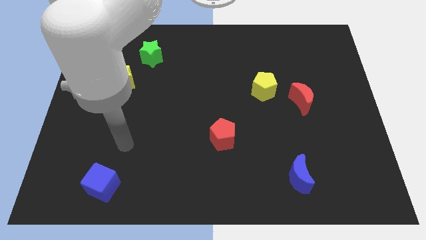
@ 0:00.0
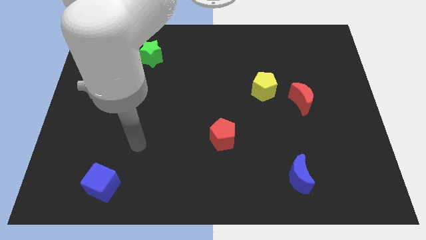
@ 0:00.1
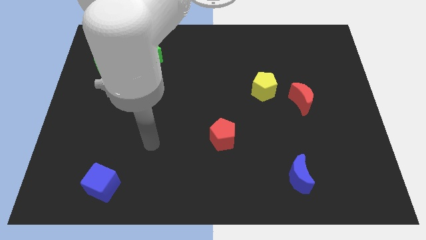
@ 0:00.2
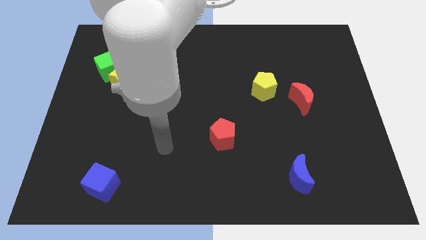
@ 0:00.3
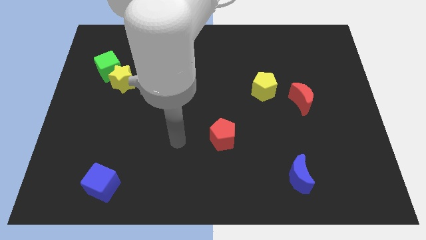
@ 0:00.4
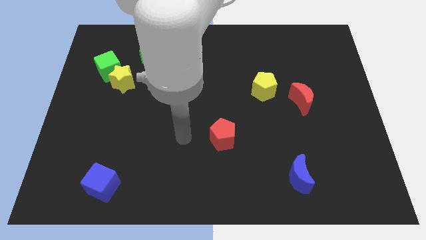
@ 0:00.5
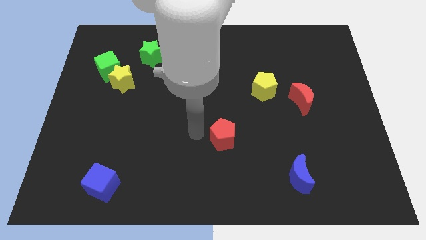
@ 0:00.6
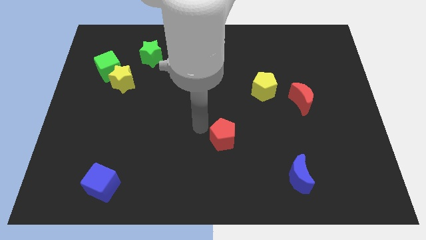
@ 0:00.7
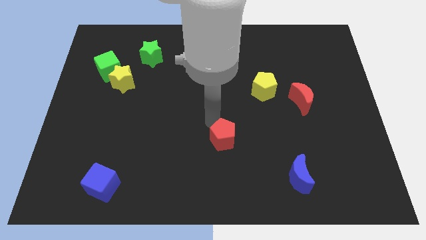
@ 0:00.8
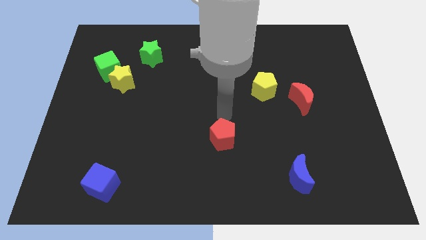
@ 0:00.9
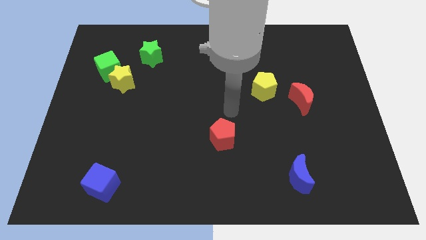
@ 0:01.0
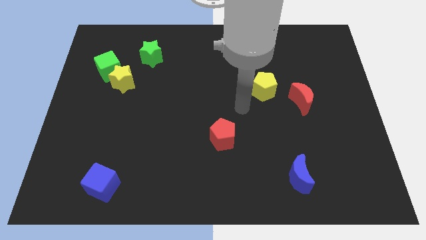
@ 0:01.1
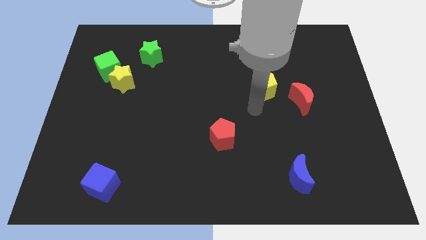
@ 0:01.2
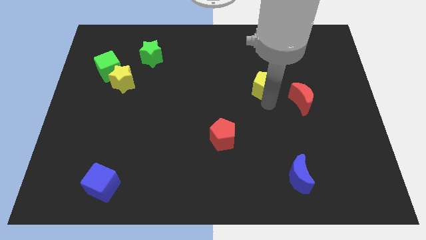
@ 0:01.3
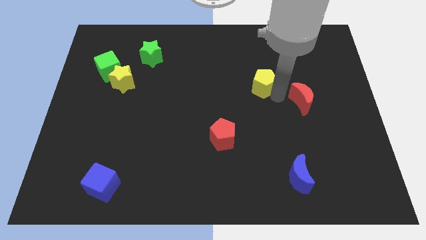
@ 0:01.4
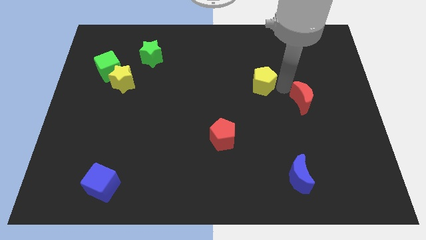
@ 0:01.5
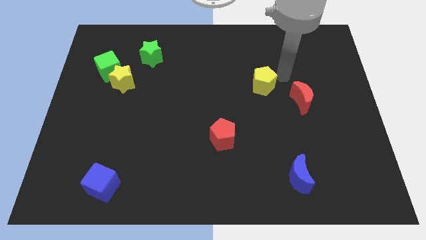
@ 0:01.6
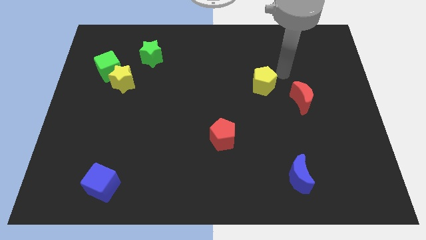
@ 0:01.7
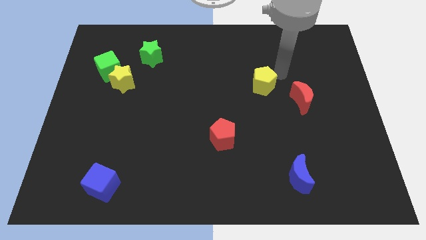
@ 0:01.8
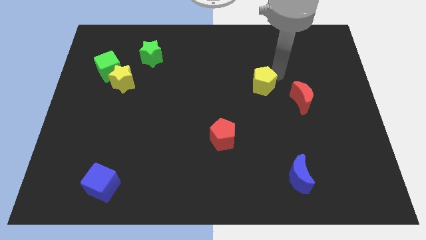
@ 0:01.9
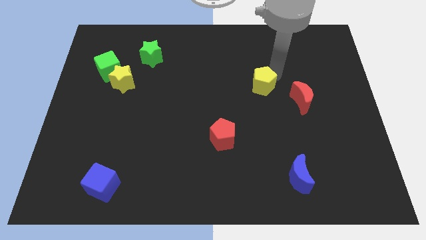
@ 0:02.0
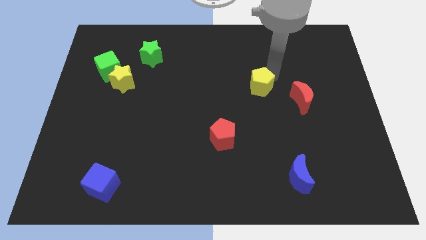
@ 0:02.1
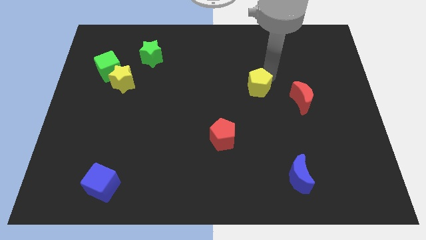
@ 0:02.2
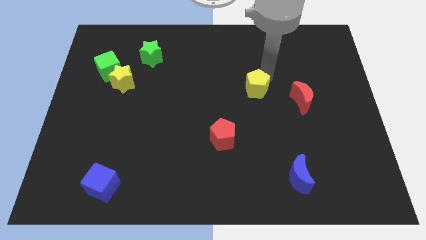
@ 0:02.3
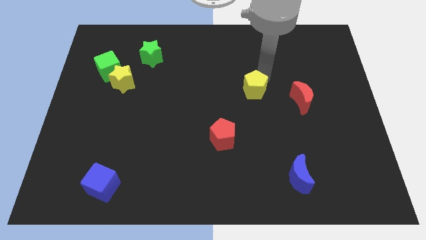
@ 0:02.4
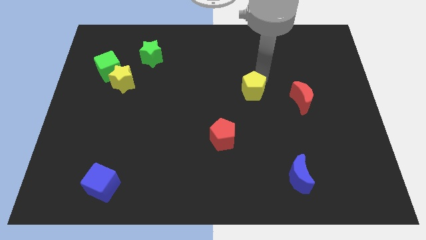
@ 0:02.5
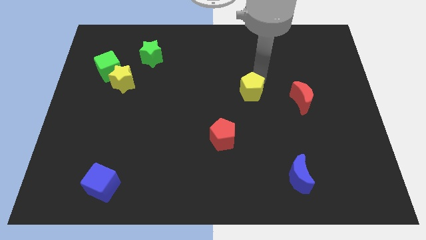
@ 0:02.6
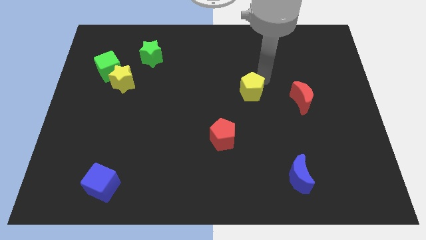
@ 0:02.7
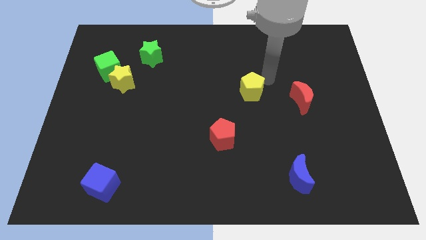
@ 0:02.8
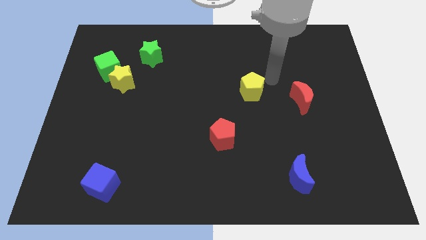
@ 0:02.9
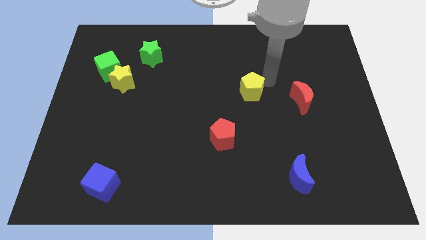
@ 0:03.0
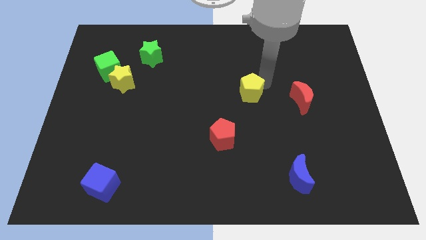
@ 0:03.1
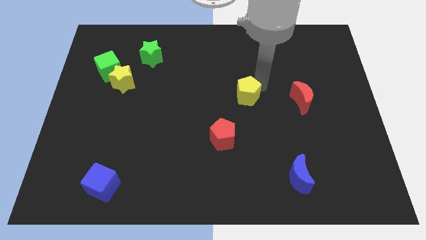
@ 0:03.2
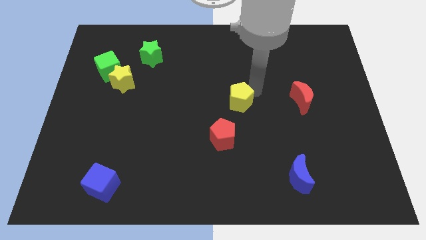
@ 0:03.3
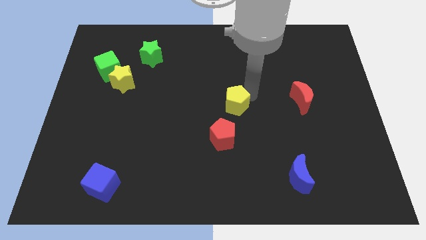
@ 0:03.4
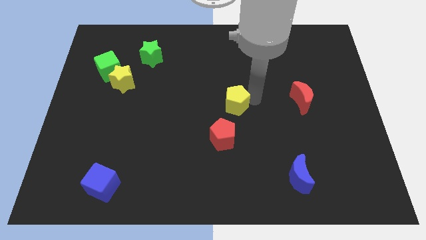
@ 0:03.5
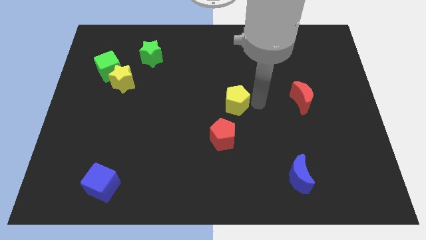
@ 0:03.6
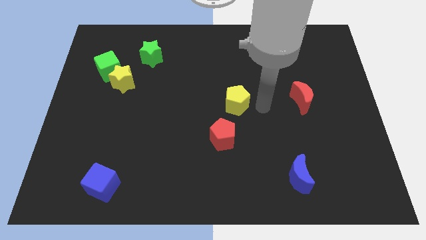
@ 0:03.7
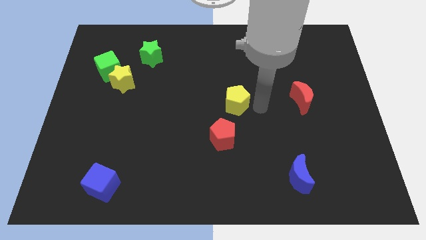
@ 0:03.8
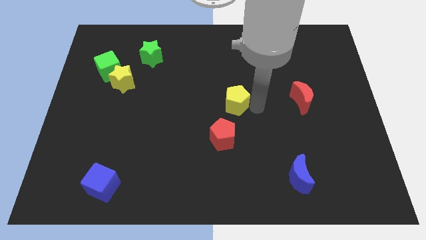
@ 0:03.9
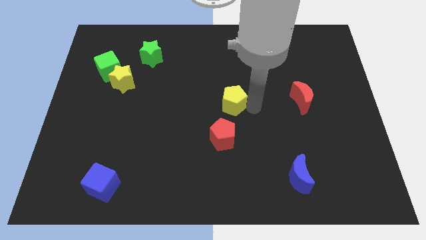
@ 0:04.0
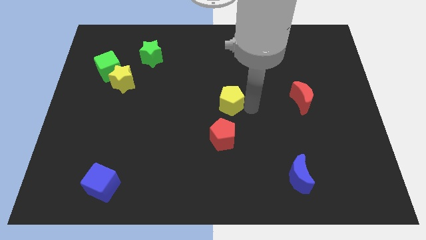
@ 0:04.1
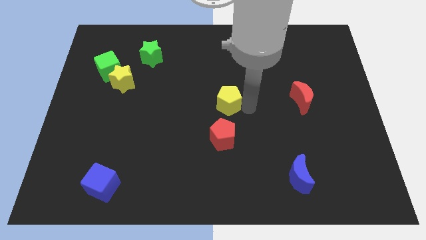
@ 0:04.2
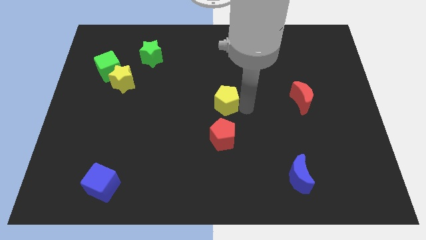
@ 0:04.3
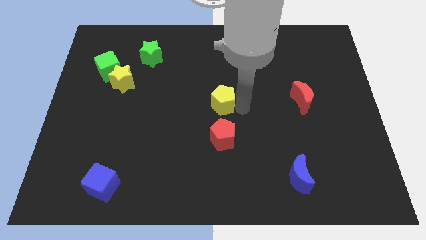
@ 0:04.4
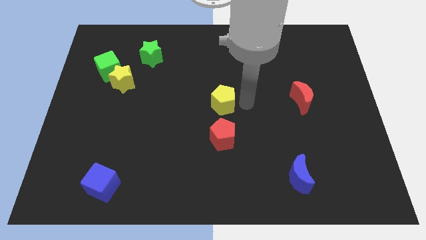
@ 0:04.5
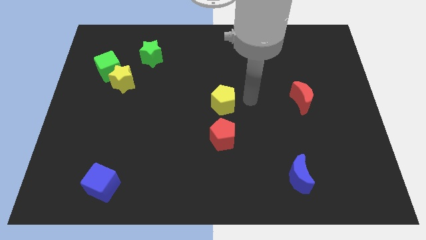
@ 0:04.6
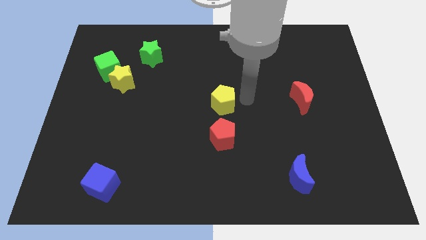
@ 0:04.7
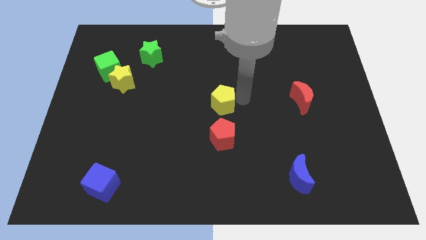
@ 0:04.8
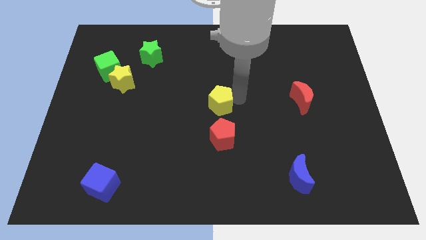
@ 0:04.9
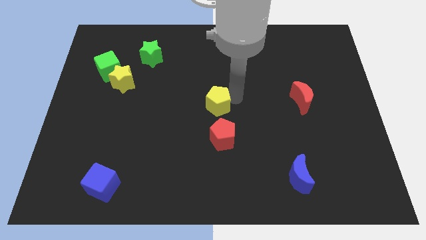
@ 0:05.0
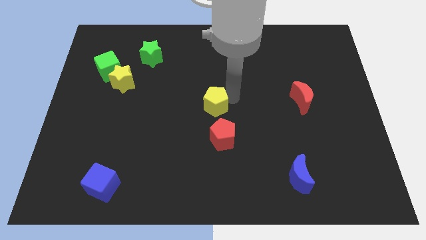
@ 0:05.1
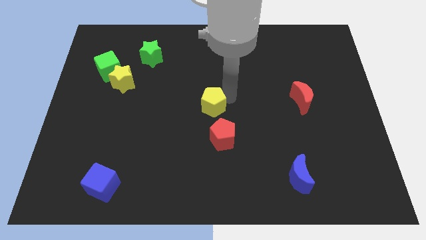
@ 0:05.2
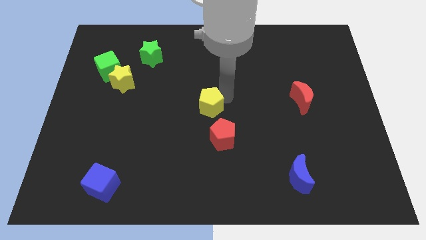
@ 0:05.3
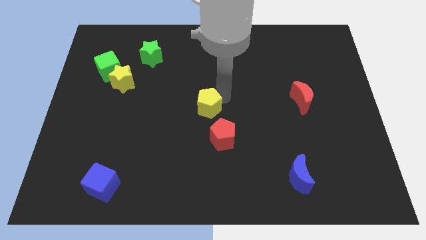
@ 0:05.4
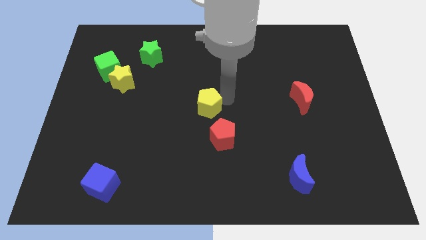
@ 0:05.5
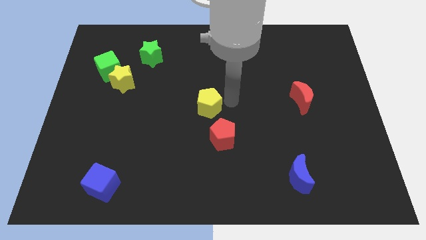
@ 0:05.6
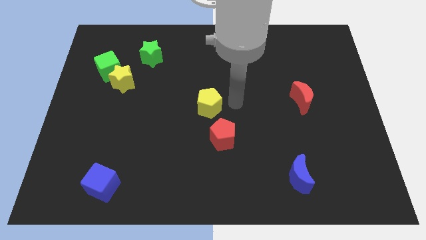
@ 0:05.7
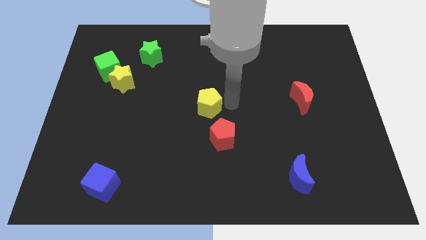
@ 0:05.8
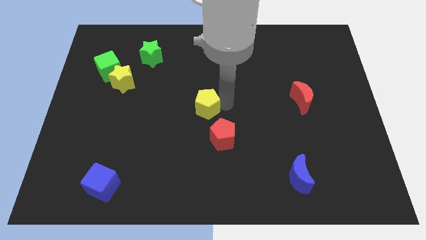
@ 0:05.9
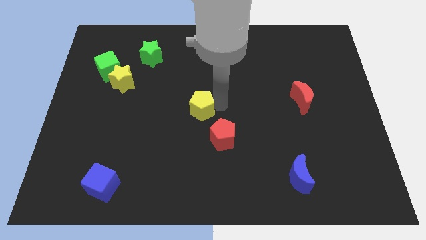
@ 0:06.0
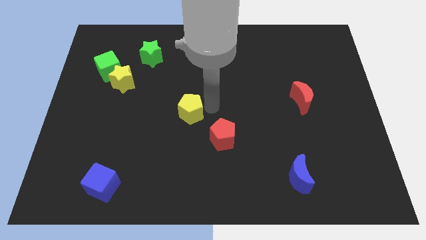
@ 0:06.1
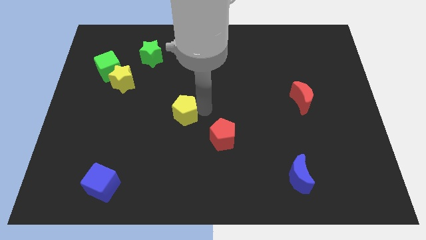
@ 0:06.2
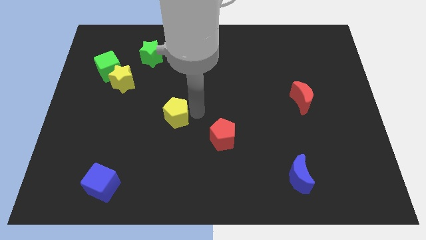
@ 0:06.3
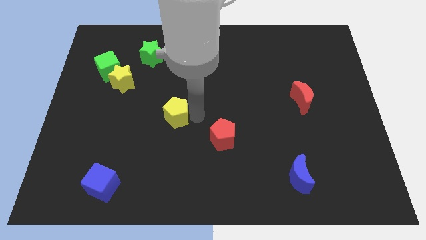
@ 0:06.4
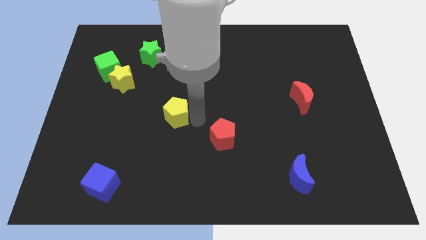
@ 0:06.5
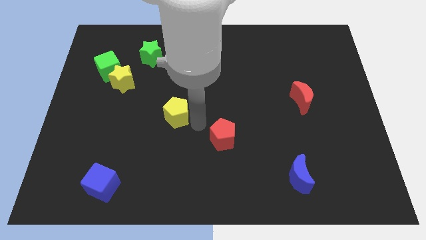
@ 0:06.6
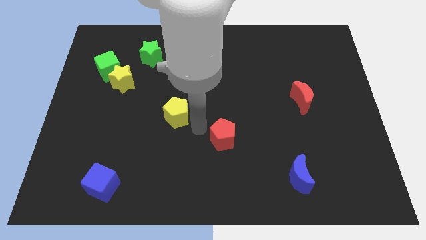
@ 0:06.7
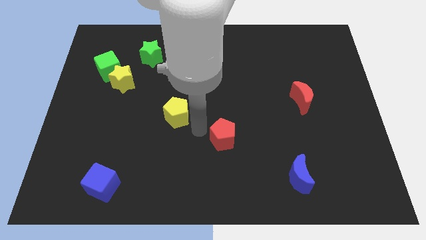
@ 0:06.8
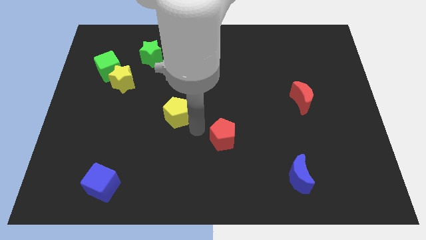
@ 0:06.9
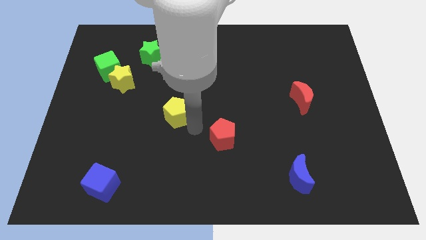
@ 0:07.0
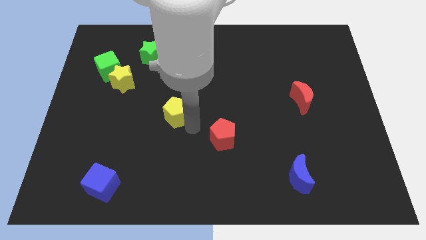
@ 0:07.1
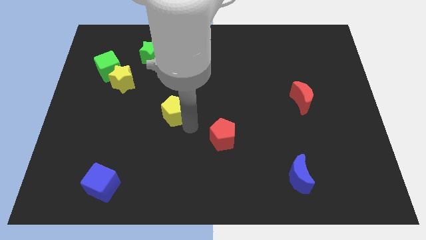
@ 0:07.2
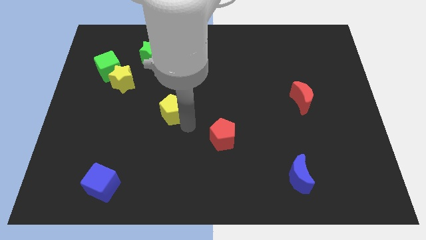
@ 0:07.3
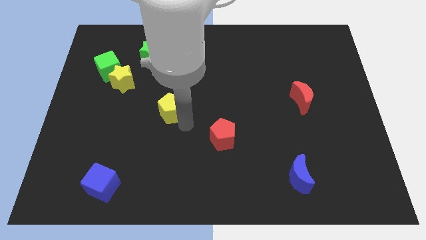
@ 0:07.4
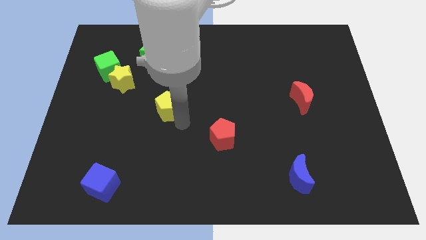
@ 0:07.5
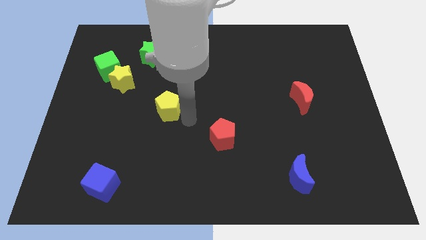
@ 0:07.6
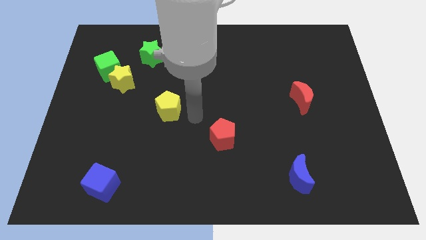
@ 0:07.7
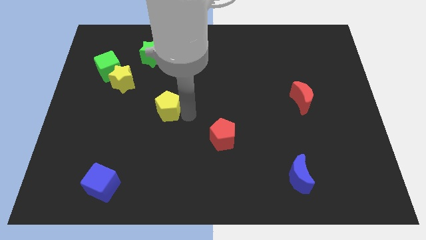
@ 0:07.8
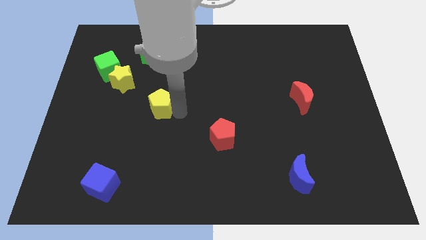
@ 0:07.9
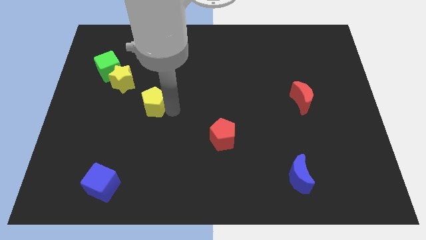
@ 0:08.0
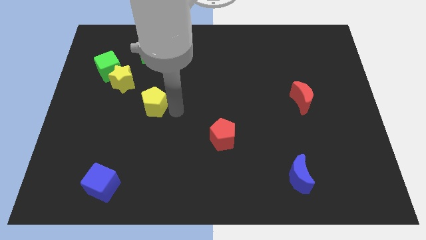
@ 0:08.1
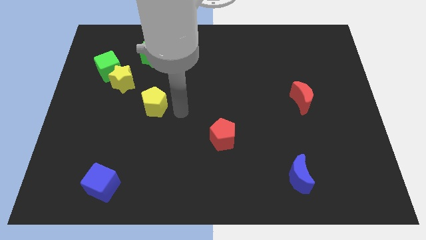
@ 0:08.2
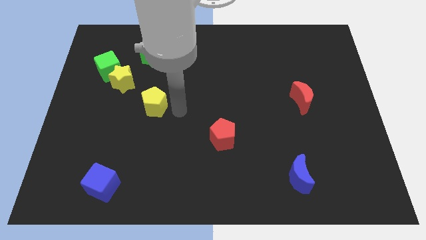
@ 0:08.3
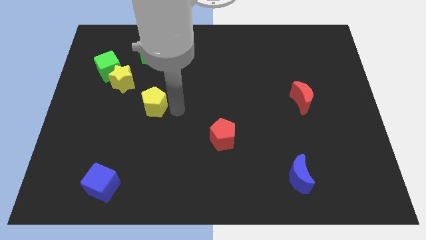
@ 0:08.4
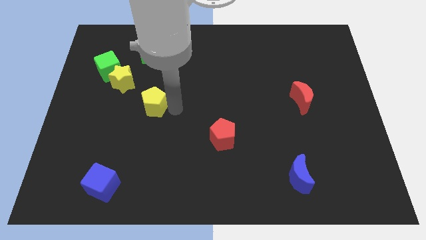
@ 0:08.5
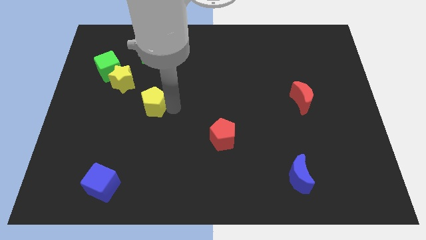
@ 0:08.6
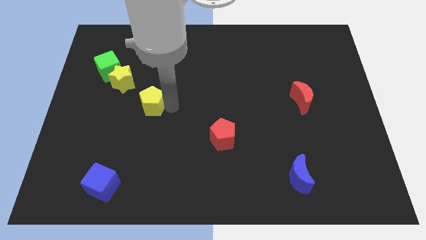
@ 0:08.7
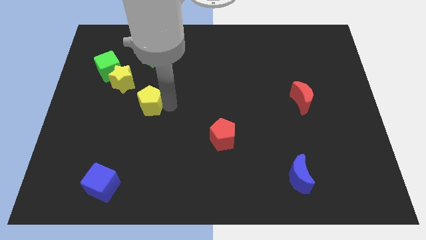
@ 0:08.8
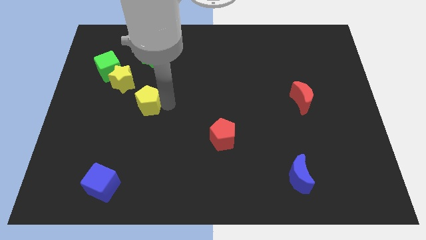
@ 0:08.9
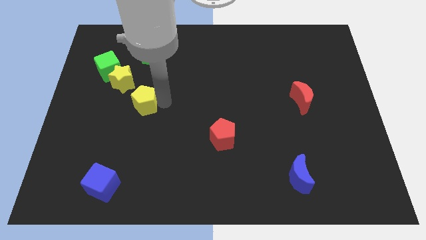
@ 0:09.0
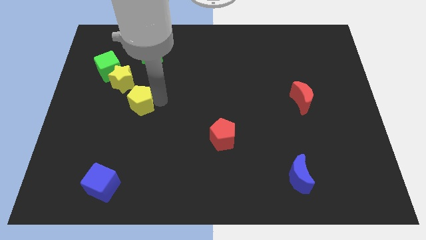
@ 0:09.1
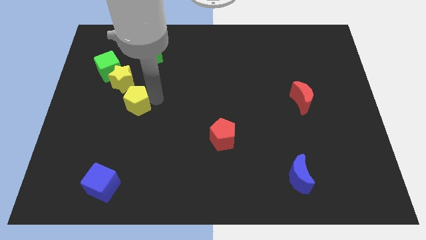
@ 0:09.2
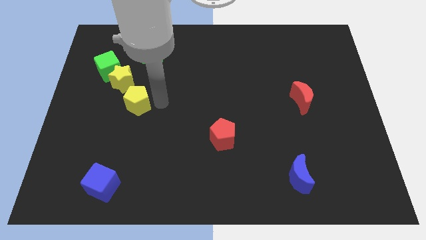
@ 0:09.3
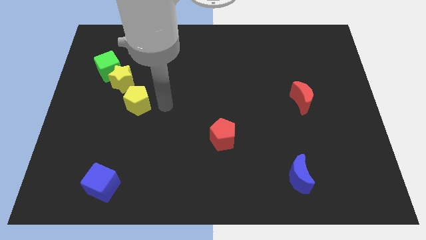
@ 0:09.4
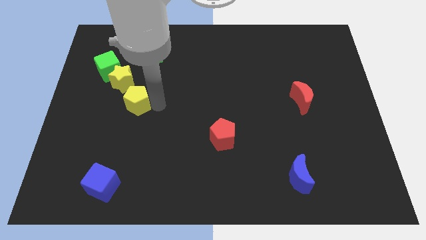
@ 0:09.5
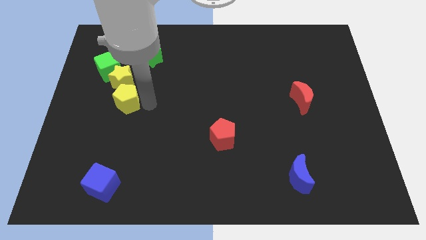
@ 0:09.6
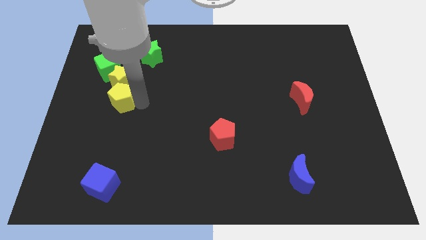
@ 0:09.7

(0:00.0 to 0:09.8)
slide the yellow pentagon to the bottom left side of the yellow star
